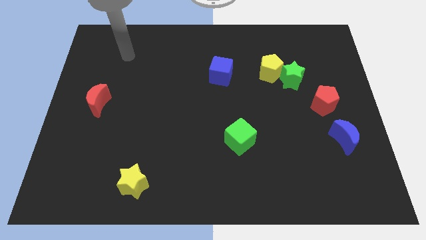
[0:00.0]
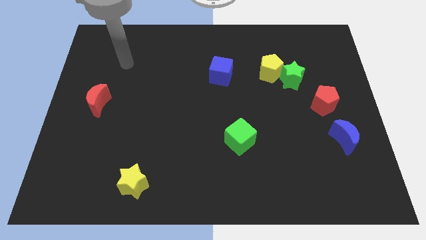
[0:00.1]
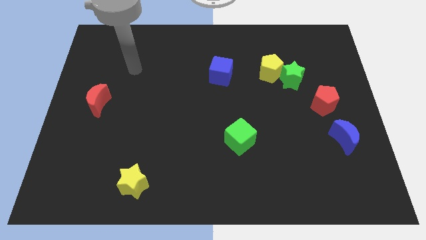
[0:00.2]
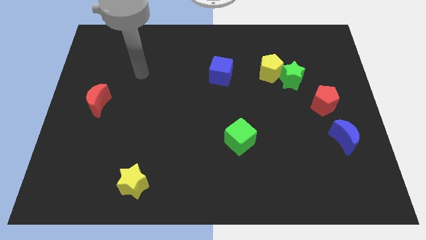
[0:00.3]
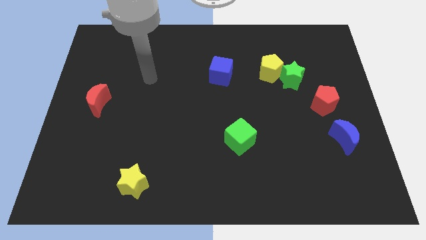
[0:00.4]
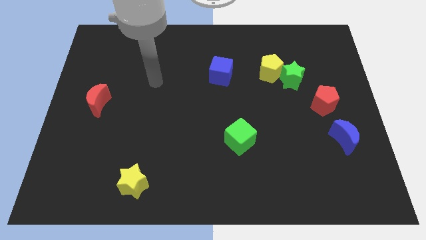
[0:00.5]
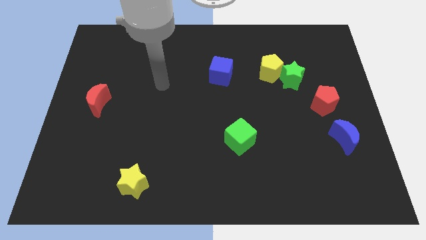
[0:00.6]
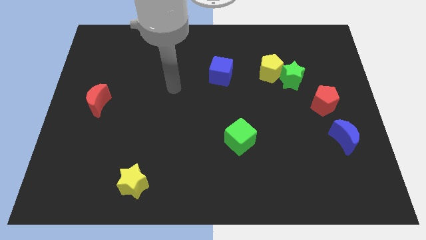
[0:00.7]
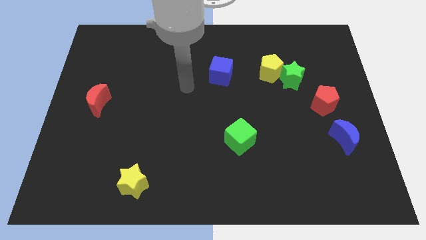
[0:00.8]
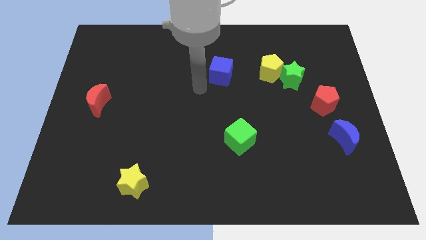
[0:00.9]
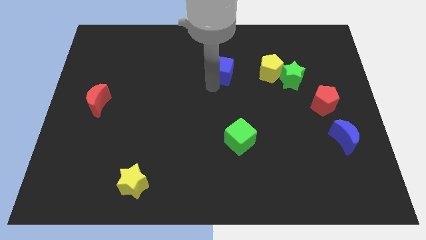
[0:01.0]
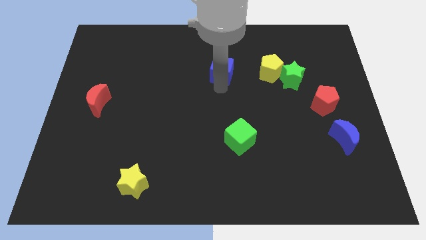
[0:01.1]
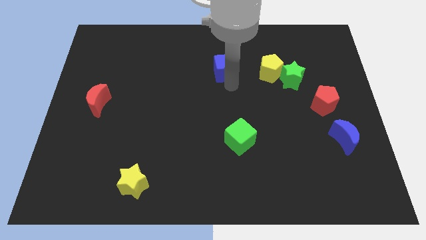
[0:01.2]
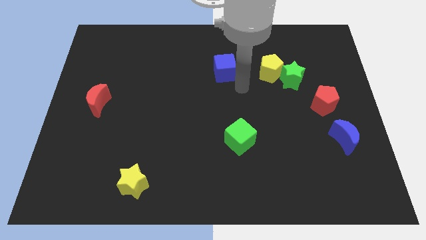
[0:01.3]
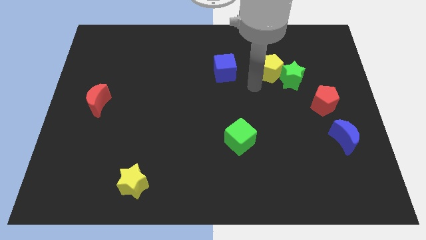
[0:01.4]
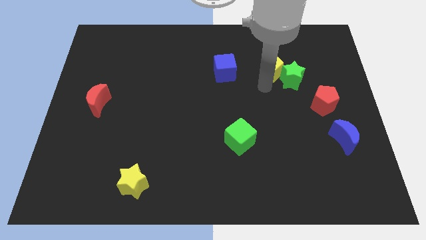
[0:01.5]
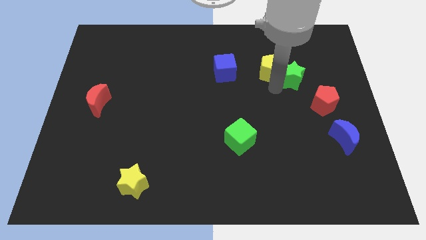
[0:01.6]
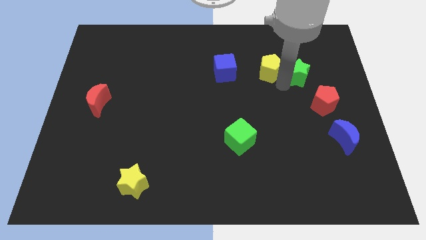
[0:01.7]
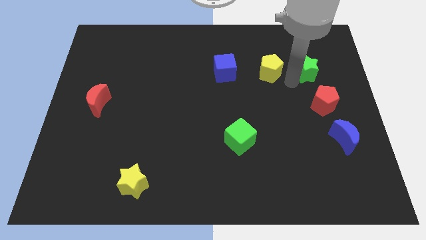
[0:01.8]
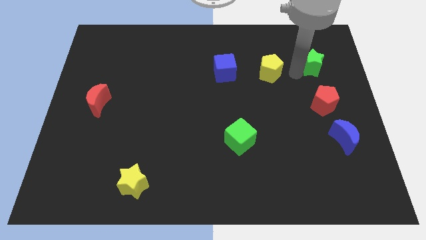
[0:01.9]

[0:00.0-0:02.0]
move the yellow pentagon away from the green star

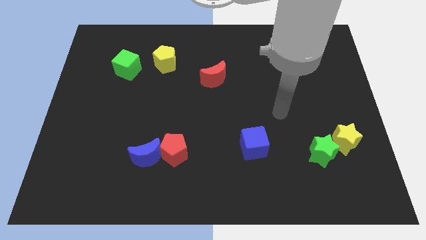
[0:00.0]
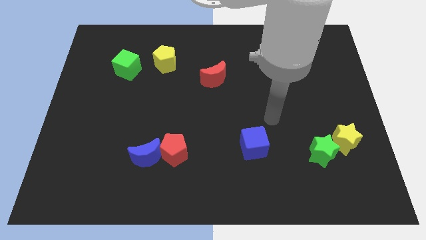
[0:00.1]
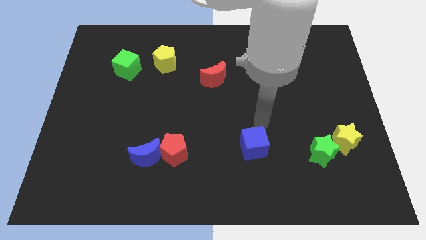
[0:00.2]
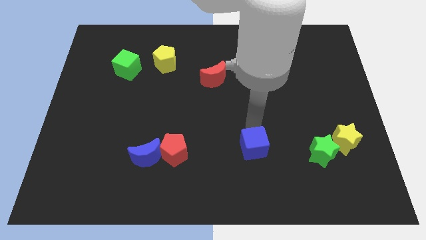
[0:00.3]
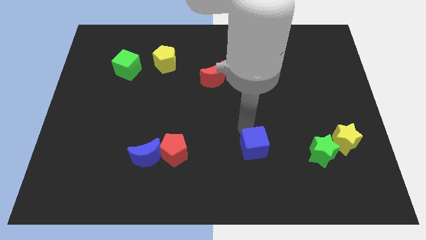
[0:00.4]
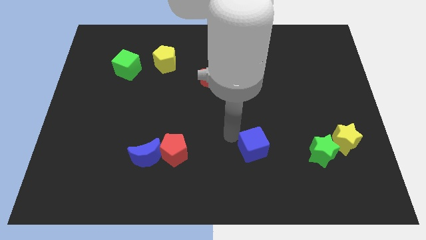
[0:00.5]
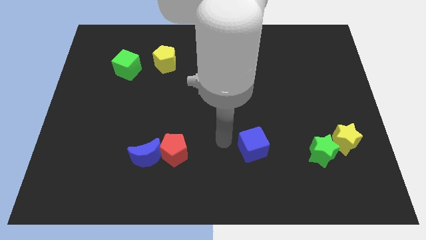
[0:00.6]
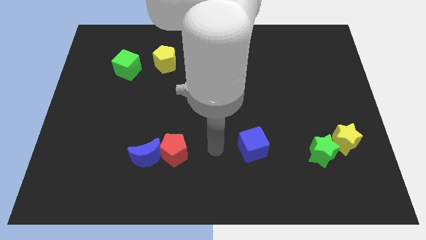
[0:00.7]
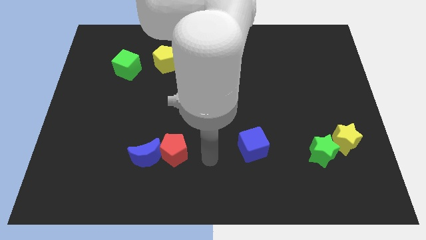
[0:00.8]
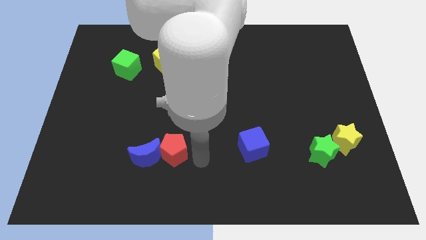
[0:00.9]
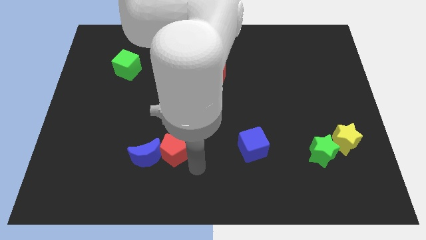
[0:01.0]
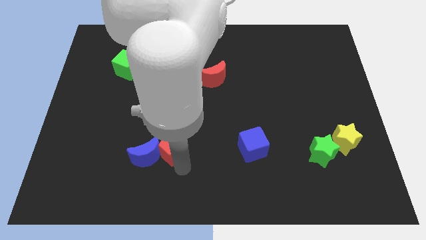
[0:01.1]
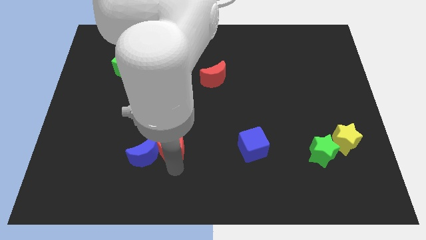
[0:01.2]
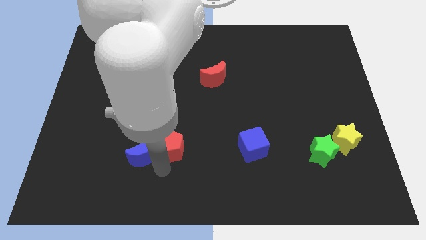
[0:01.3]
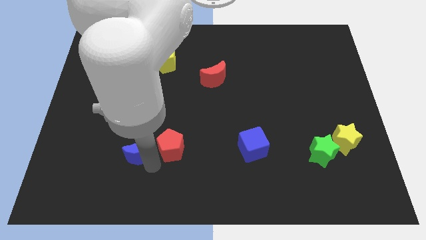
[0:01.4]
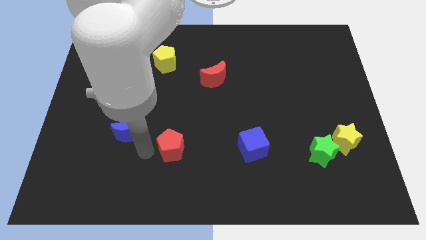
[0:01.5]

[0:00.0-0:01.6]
separate the red pentagon from the blue moon

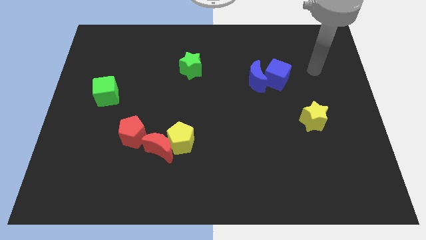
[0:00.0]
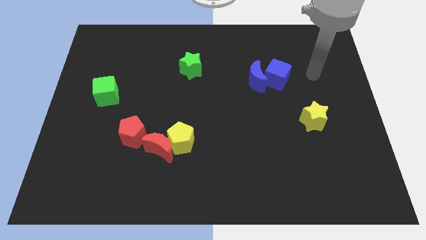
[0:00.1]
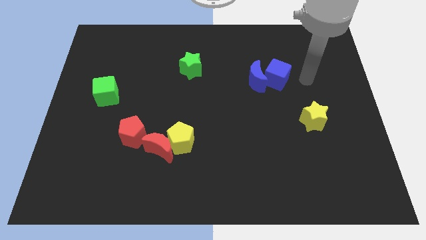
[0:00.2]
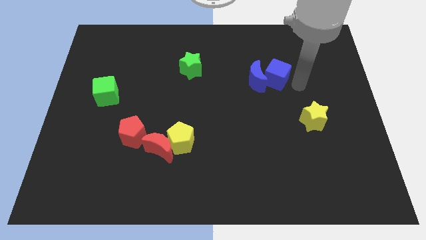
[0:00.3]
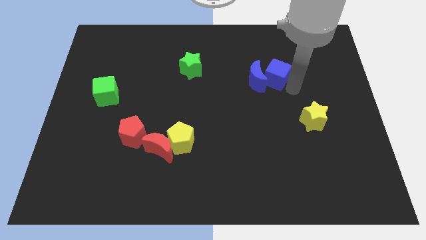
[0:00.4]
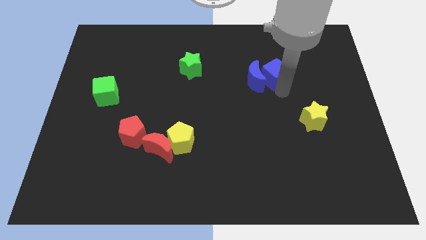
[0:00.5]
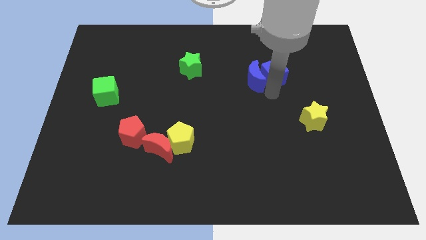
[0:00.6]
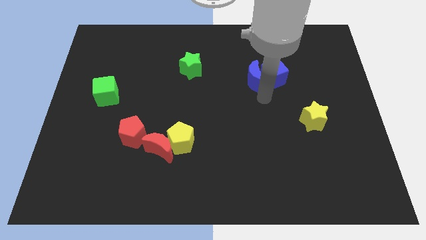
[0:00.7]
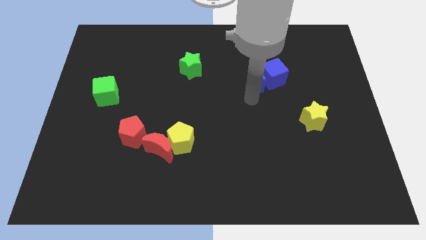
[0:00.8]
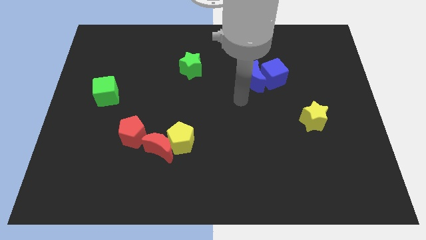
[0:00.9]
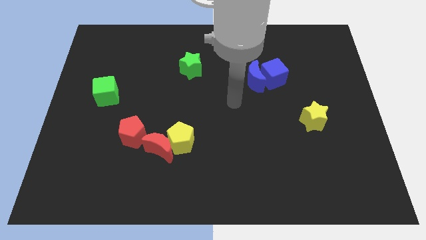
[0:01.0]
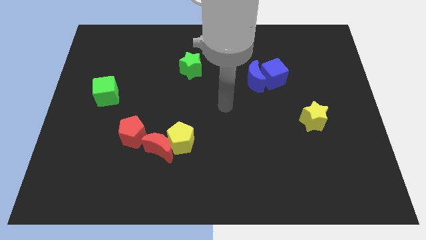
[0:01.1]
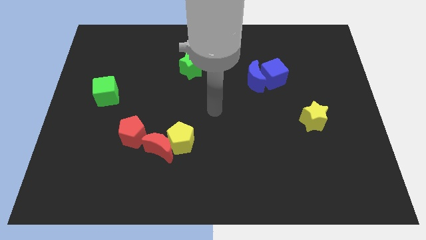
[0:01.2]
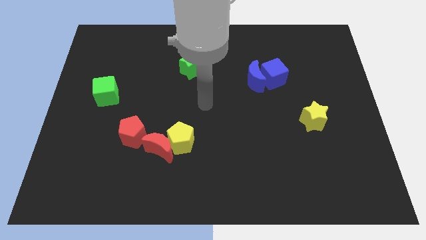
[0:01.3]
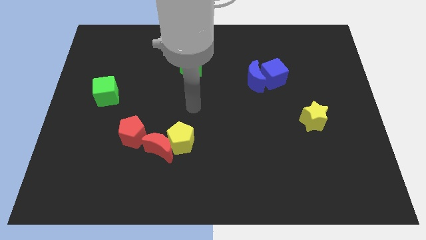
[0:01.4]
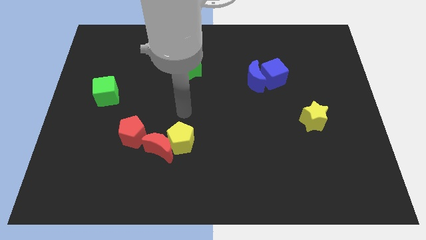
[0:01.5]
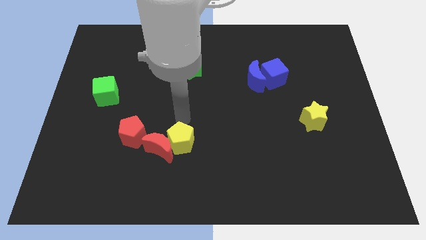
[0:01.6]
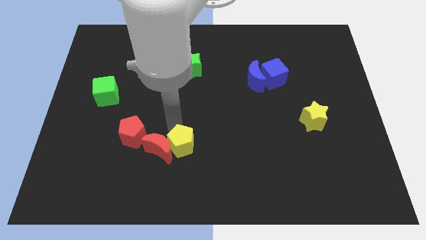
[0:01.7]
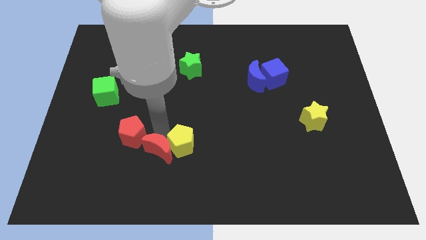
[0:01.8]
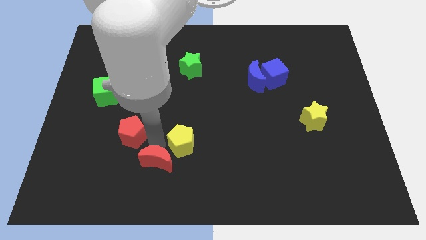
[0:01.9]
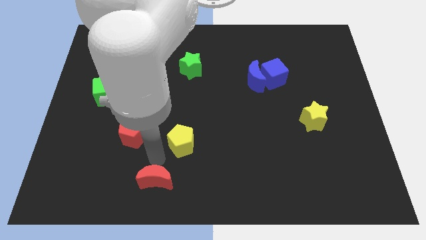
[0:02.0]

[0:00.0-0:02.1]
move the yellow pentagon away from the red moon

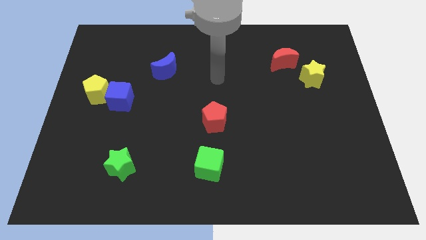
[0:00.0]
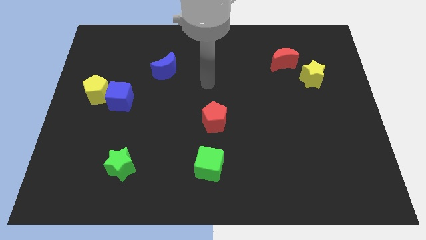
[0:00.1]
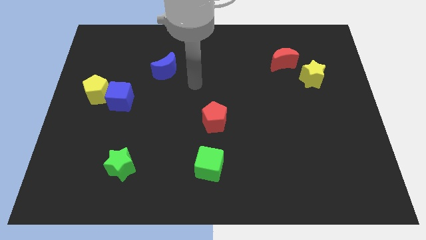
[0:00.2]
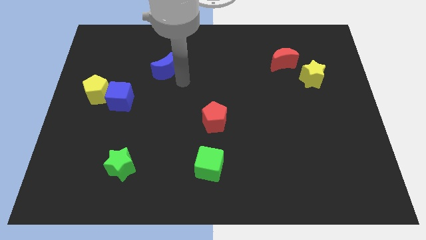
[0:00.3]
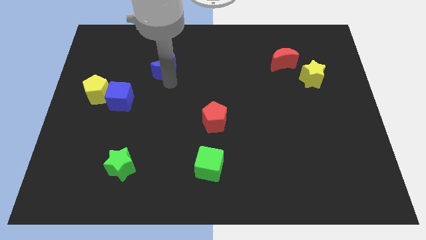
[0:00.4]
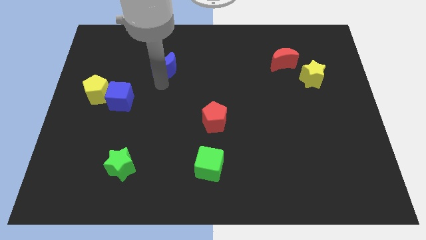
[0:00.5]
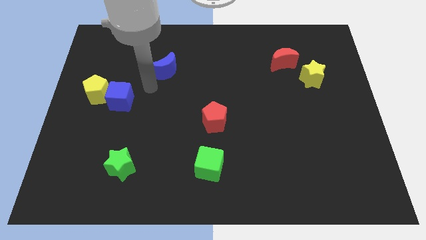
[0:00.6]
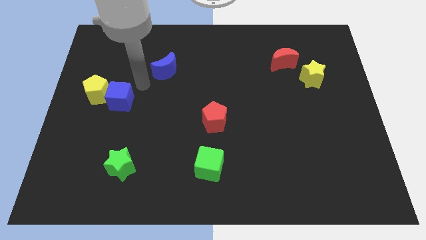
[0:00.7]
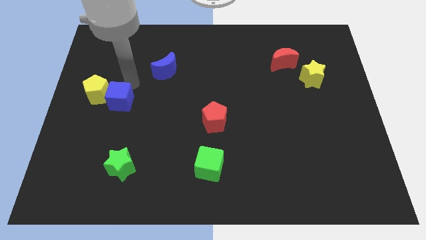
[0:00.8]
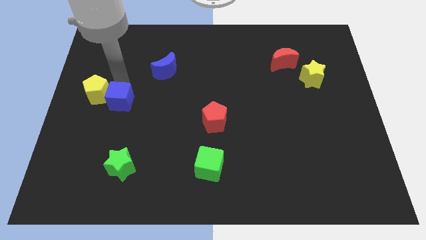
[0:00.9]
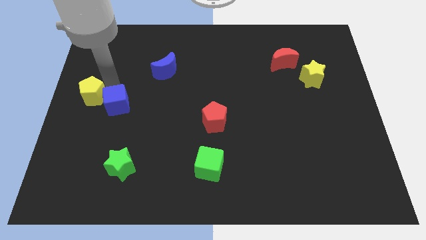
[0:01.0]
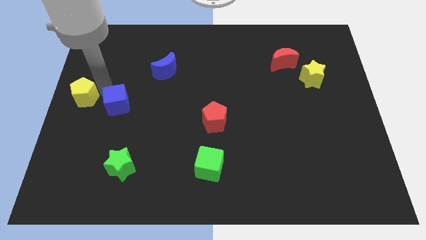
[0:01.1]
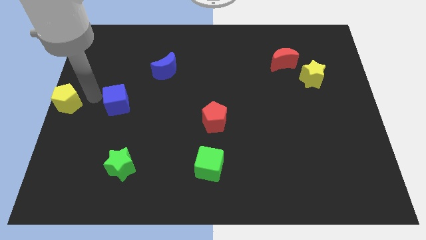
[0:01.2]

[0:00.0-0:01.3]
pull the blue cube apart from the yellow pentagon

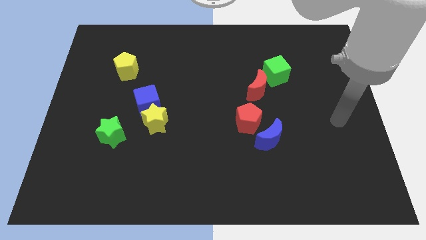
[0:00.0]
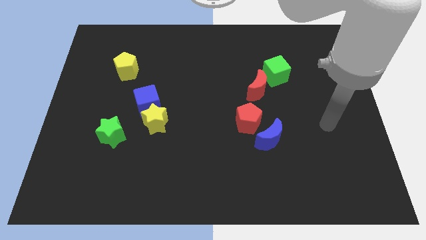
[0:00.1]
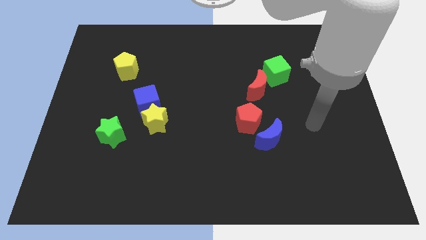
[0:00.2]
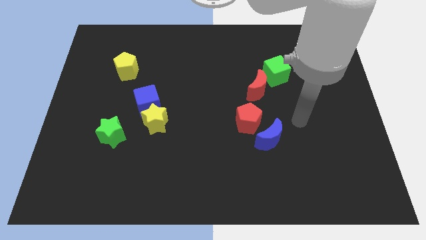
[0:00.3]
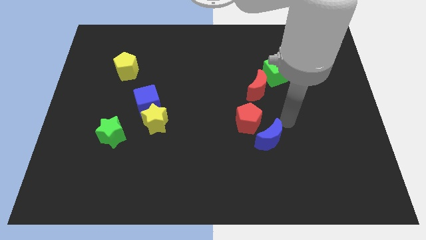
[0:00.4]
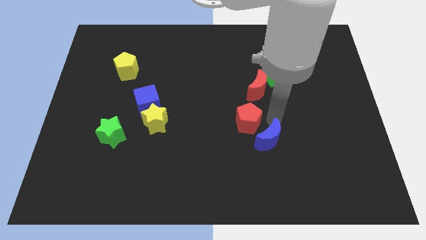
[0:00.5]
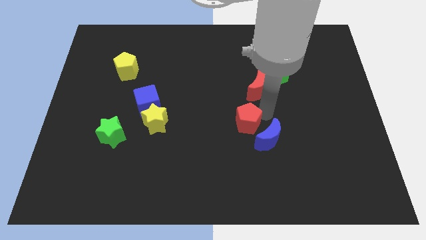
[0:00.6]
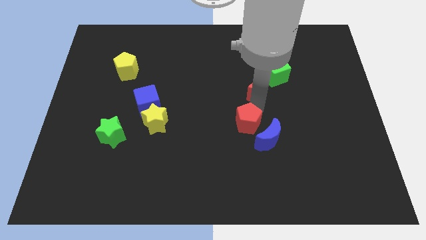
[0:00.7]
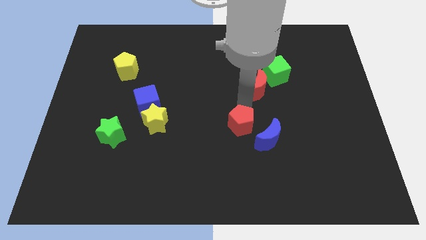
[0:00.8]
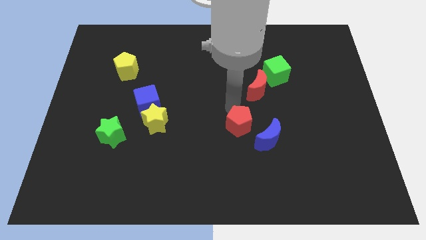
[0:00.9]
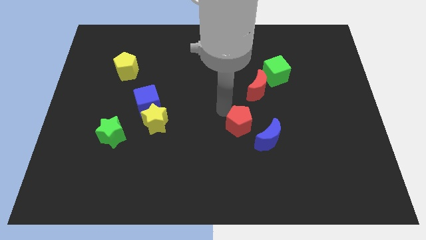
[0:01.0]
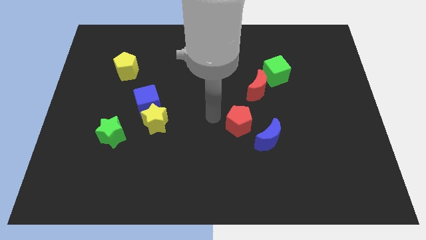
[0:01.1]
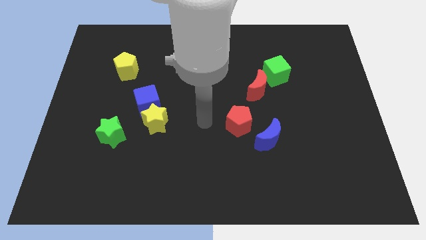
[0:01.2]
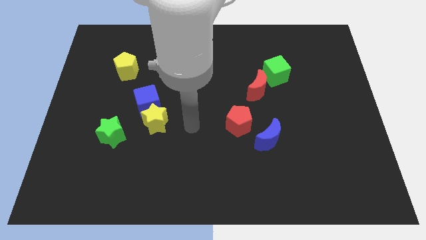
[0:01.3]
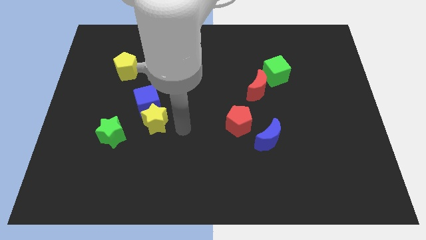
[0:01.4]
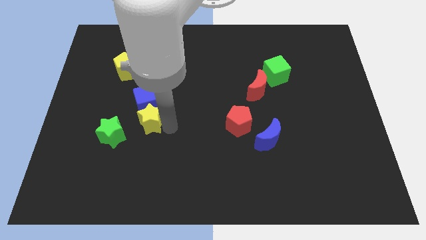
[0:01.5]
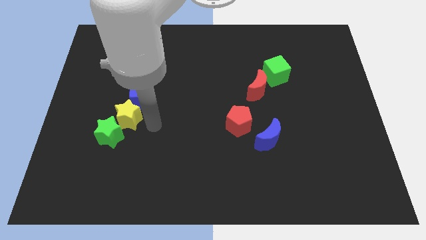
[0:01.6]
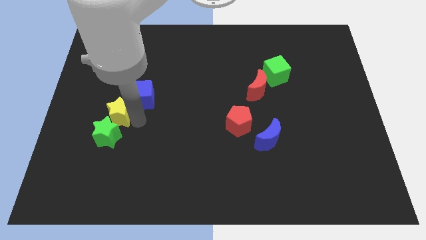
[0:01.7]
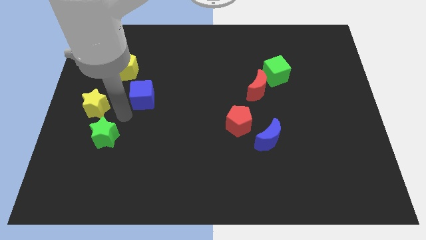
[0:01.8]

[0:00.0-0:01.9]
separate the blue cube from the yellow star

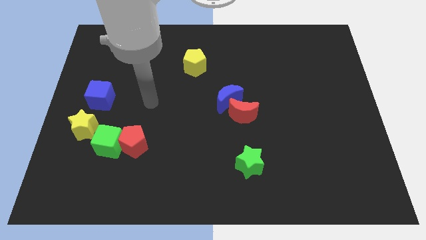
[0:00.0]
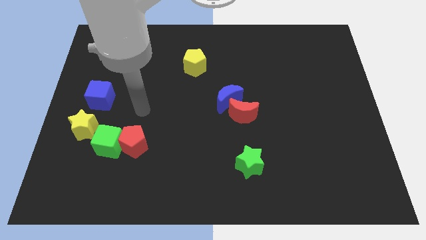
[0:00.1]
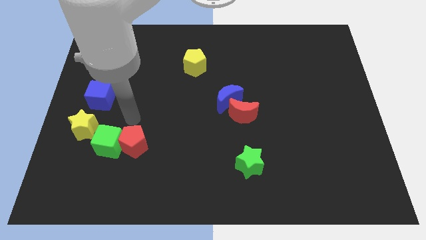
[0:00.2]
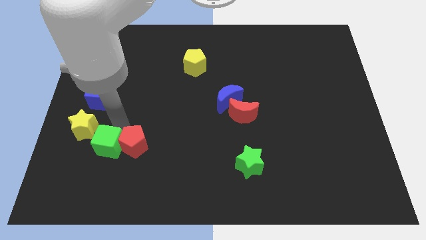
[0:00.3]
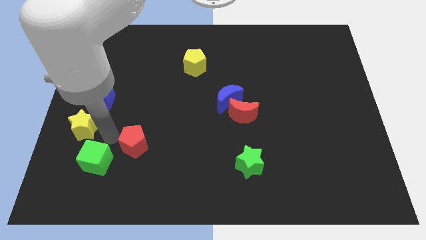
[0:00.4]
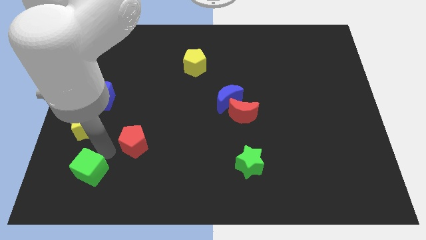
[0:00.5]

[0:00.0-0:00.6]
separate the red pentagon from the green cube
